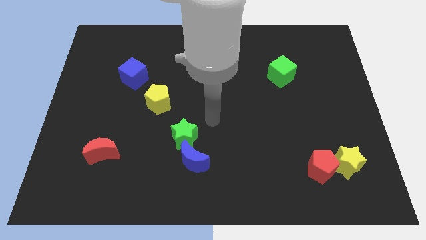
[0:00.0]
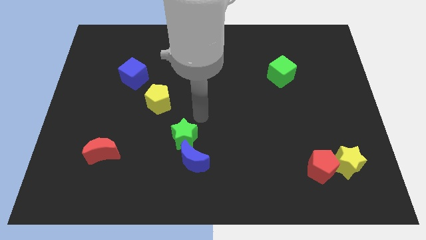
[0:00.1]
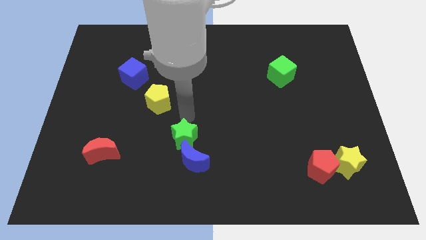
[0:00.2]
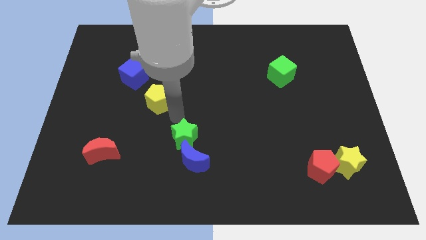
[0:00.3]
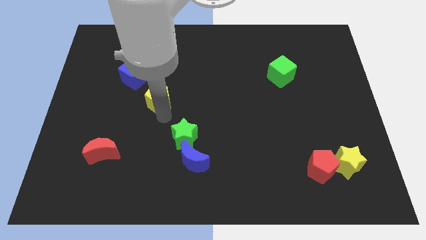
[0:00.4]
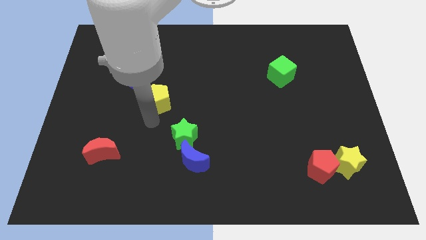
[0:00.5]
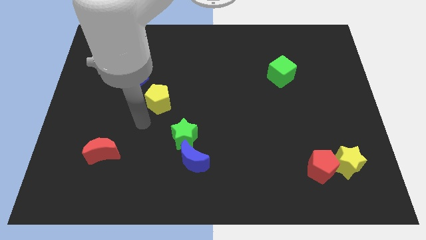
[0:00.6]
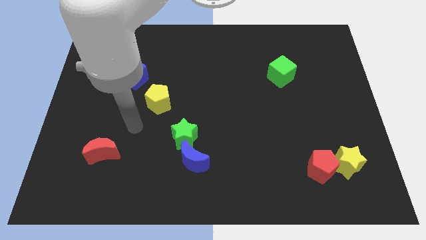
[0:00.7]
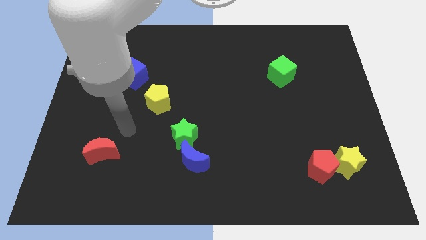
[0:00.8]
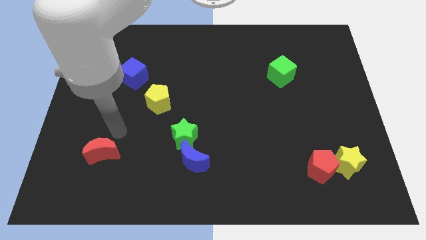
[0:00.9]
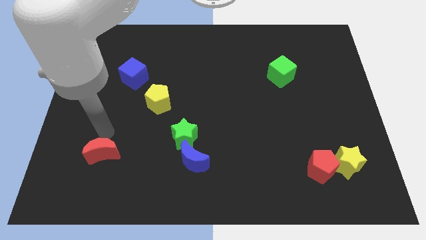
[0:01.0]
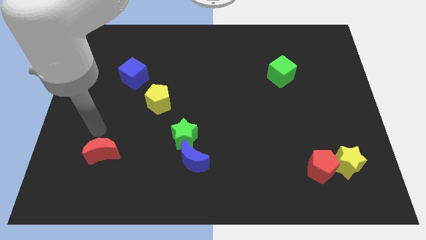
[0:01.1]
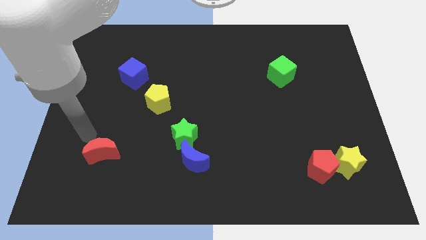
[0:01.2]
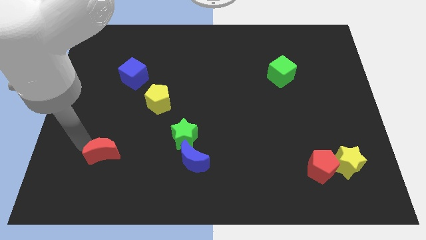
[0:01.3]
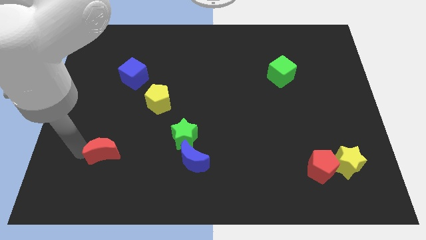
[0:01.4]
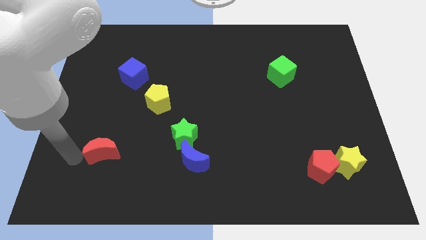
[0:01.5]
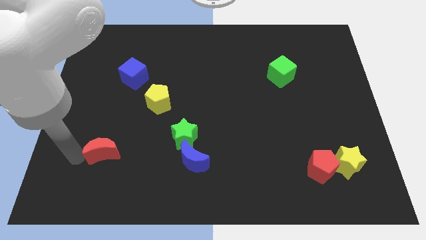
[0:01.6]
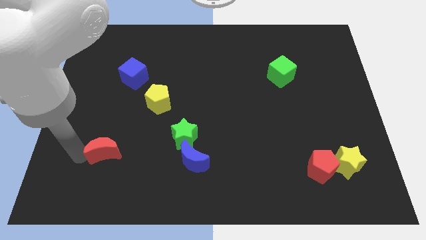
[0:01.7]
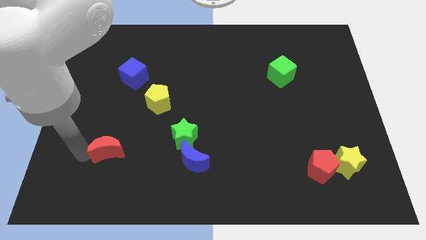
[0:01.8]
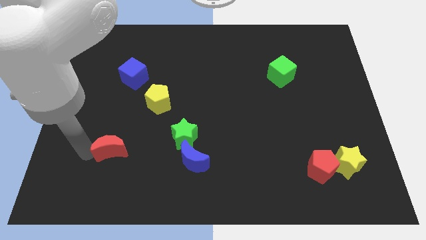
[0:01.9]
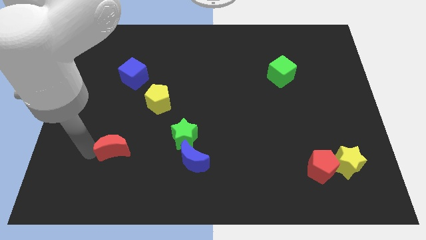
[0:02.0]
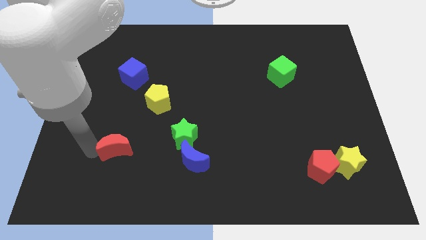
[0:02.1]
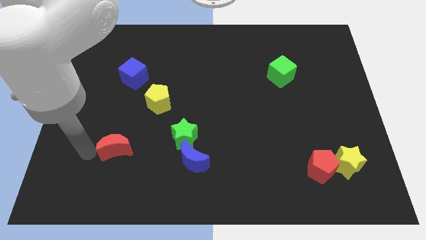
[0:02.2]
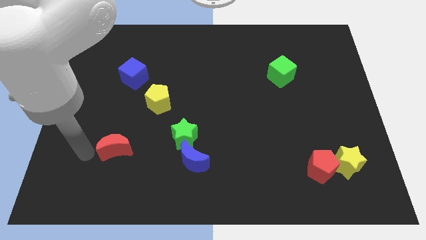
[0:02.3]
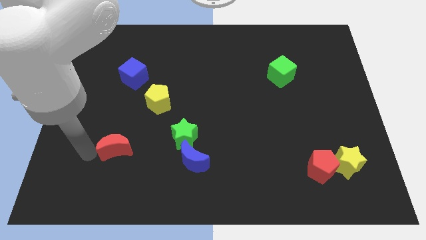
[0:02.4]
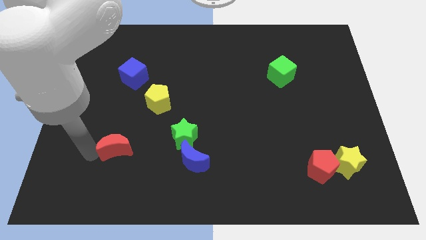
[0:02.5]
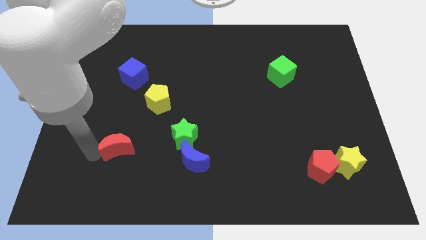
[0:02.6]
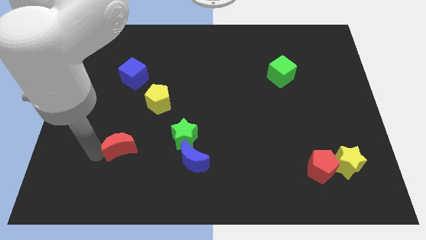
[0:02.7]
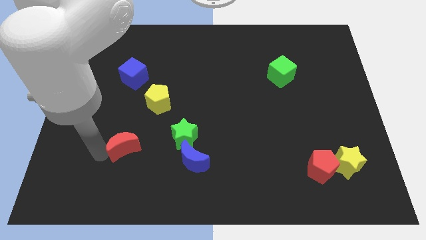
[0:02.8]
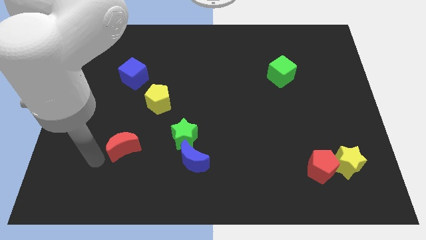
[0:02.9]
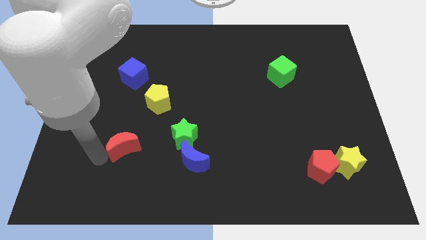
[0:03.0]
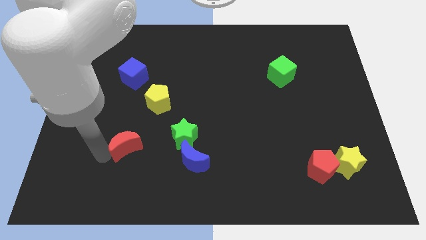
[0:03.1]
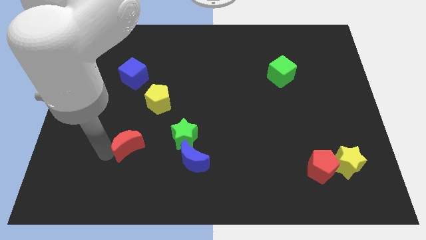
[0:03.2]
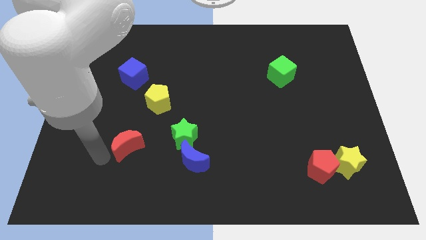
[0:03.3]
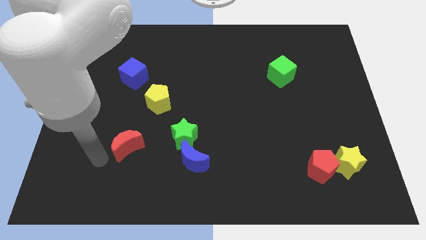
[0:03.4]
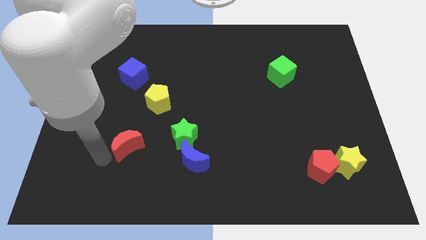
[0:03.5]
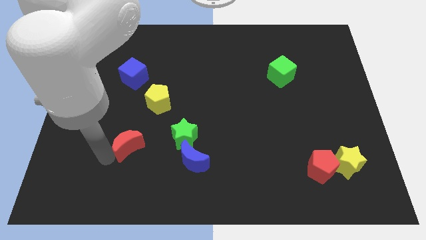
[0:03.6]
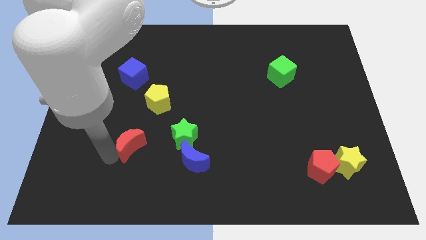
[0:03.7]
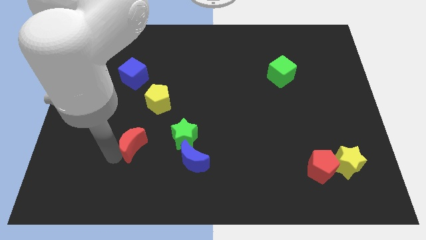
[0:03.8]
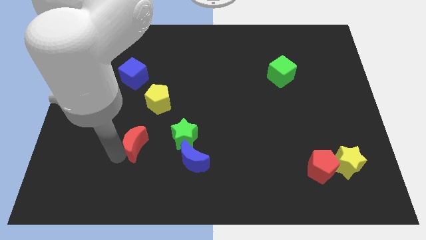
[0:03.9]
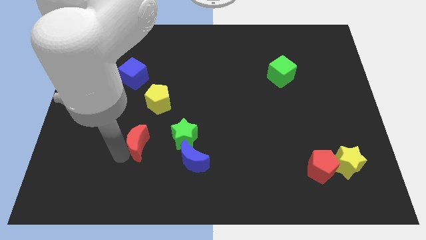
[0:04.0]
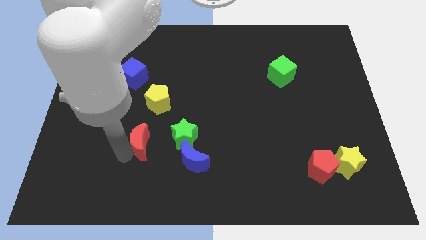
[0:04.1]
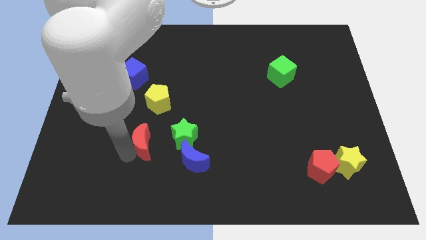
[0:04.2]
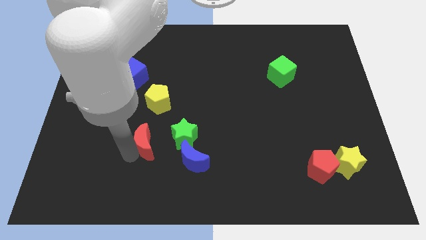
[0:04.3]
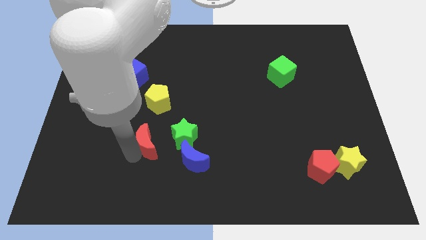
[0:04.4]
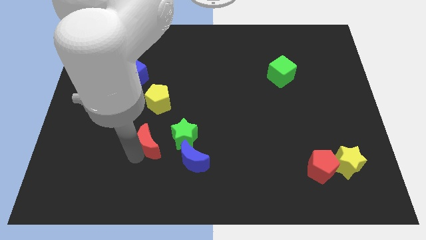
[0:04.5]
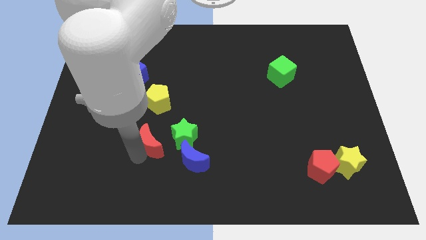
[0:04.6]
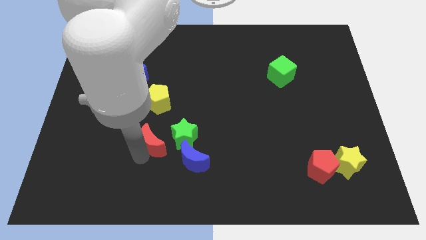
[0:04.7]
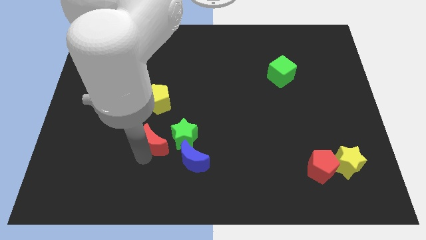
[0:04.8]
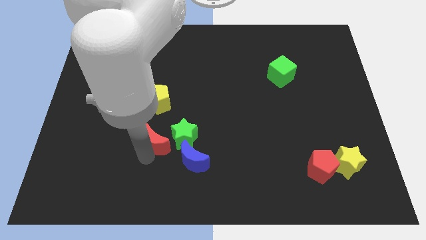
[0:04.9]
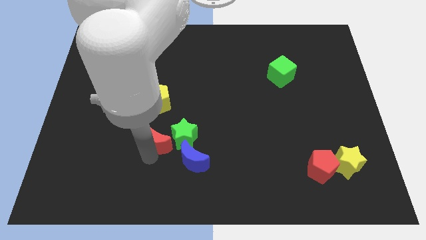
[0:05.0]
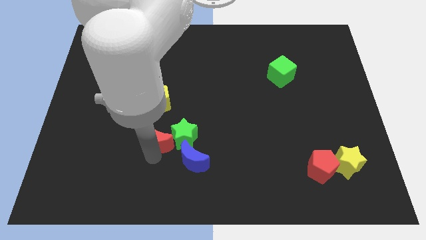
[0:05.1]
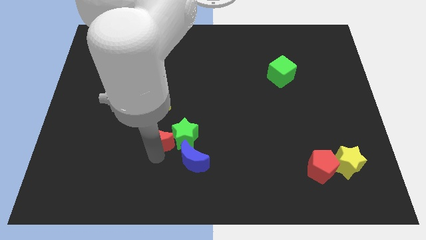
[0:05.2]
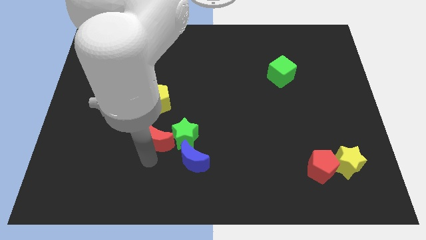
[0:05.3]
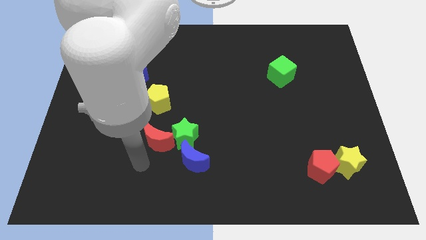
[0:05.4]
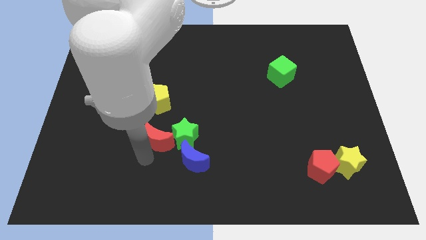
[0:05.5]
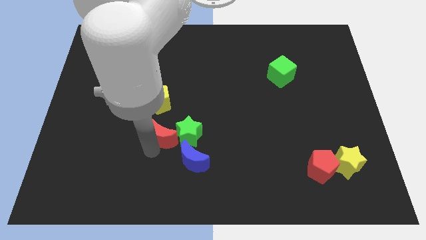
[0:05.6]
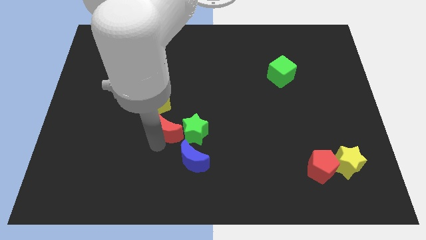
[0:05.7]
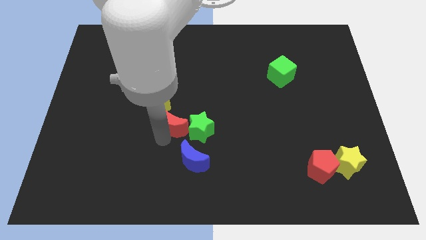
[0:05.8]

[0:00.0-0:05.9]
put the red moon to the middle of the board

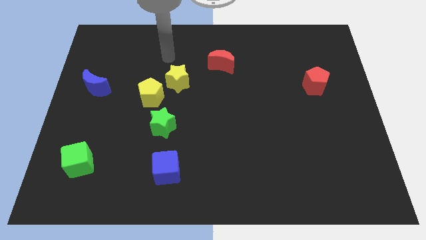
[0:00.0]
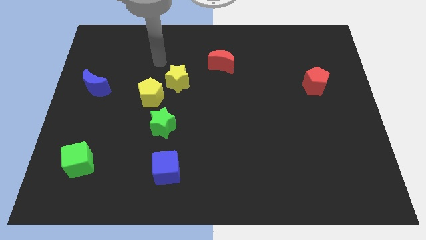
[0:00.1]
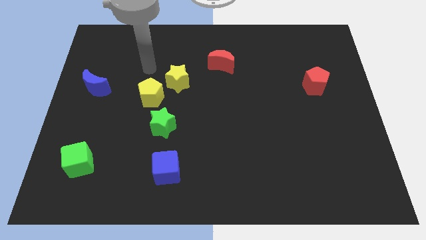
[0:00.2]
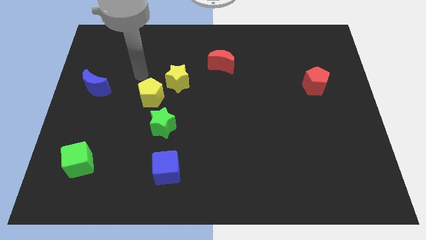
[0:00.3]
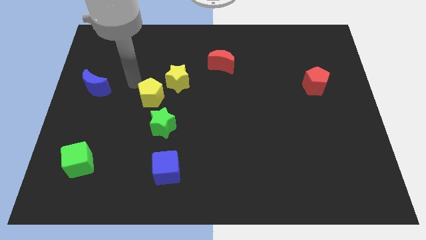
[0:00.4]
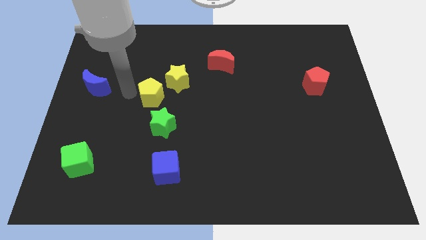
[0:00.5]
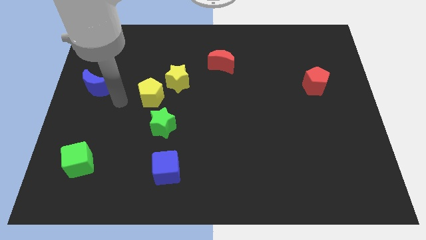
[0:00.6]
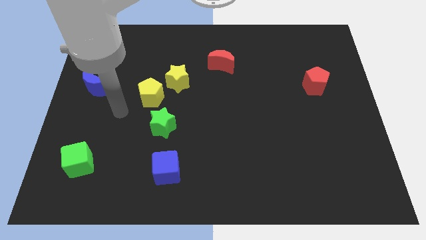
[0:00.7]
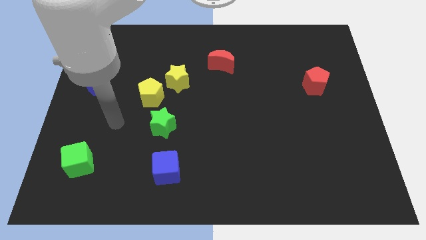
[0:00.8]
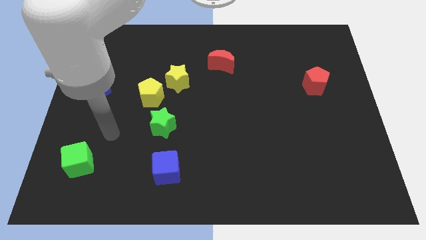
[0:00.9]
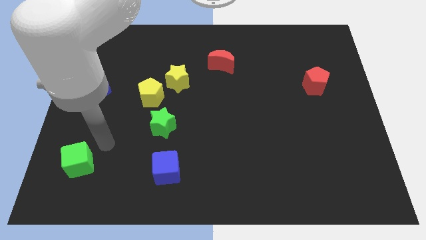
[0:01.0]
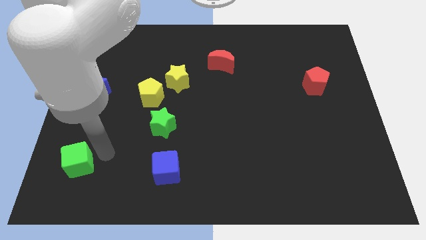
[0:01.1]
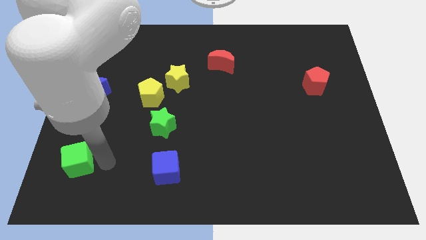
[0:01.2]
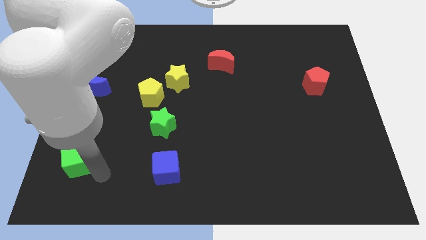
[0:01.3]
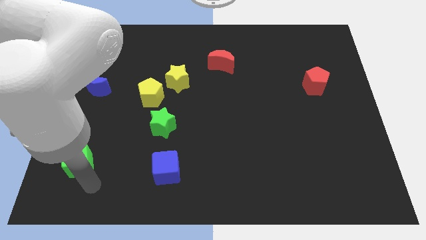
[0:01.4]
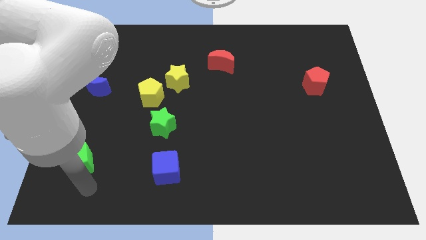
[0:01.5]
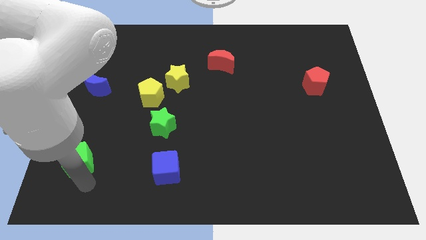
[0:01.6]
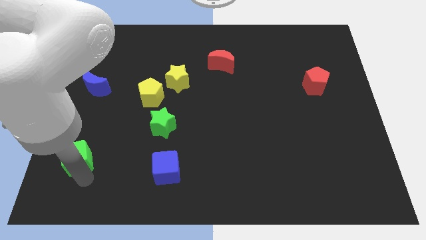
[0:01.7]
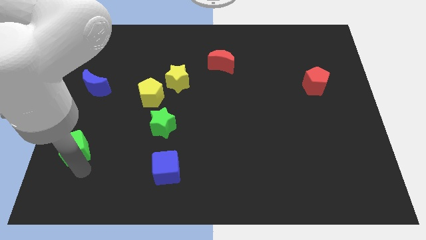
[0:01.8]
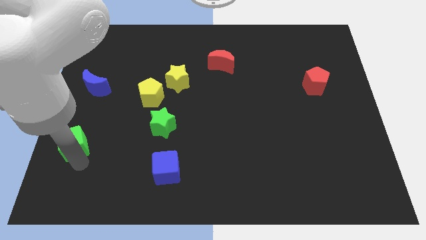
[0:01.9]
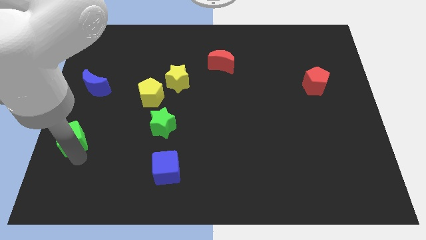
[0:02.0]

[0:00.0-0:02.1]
move the green cube to the center left
